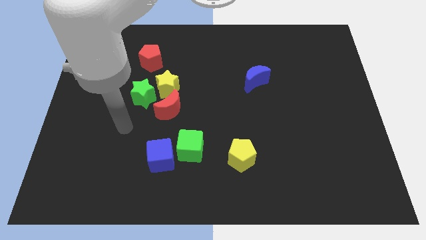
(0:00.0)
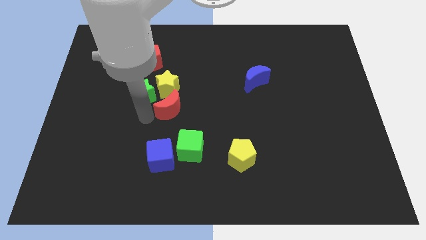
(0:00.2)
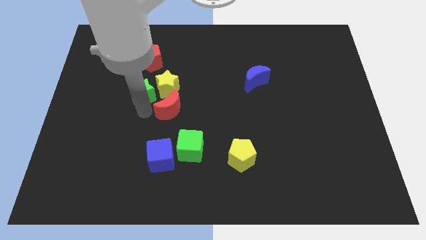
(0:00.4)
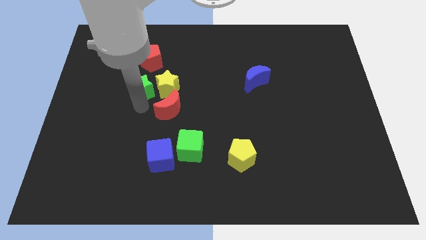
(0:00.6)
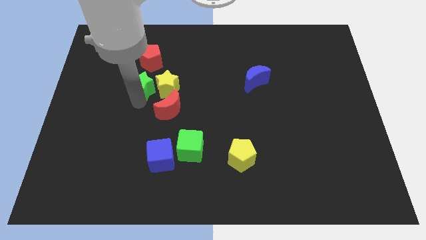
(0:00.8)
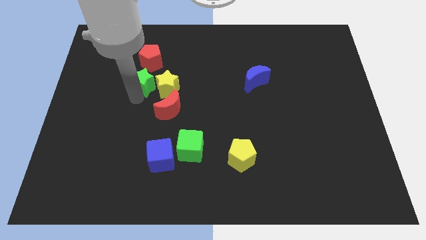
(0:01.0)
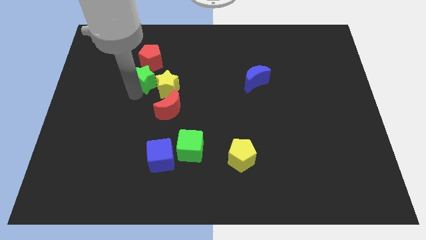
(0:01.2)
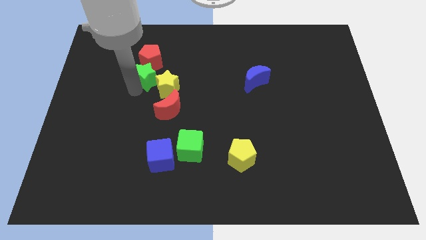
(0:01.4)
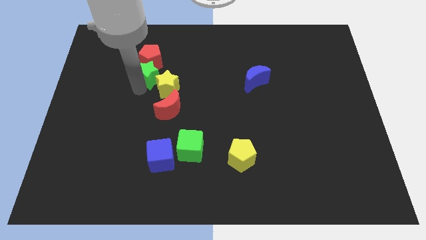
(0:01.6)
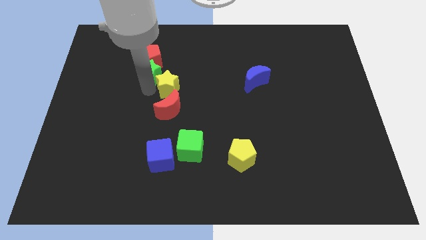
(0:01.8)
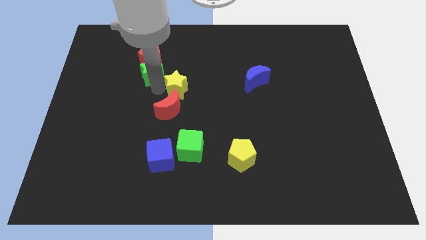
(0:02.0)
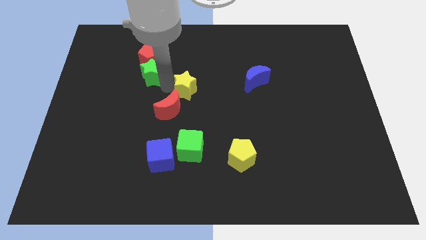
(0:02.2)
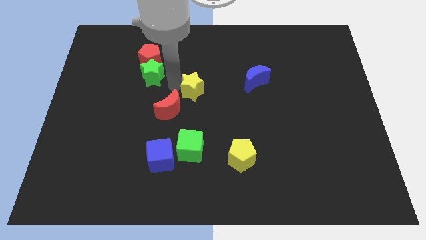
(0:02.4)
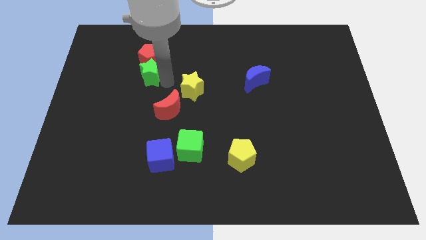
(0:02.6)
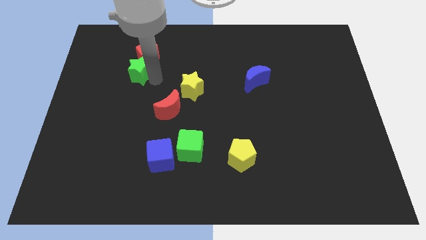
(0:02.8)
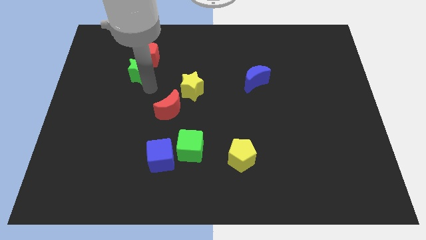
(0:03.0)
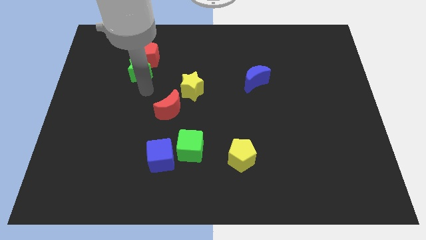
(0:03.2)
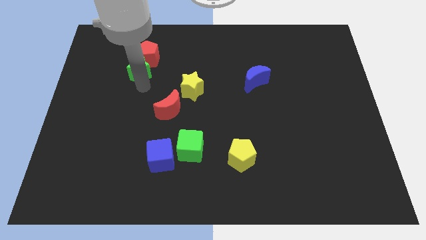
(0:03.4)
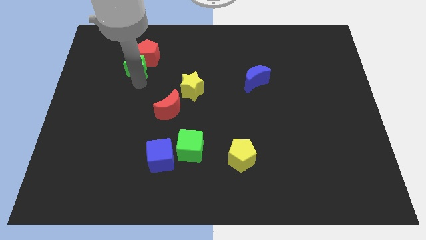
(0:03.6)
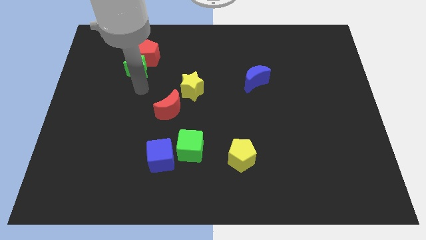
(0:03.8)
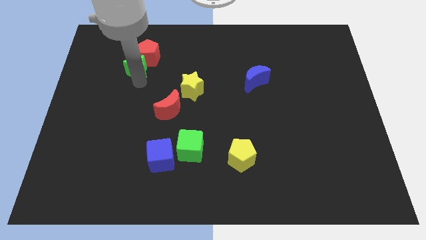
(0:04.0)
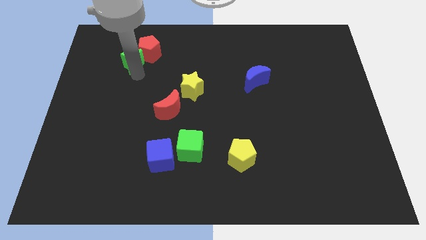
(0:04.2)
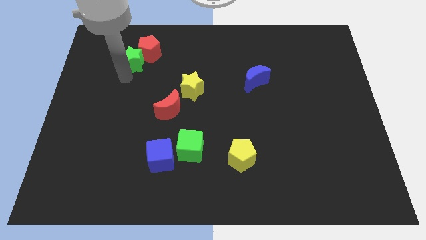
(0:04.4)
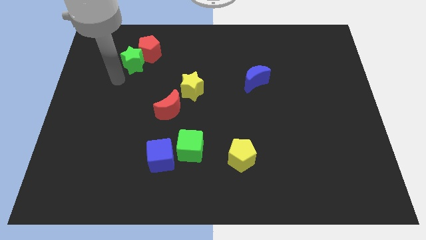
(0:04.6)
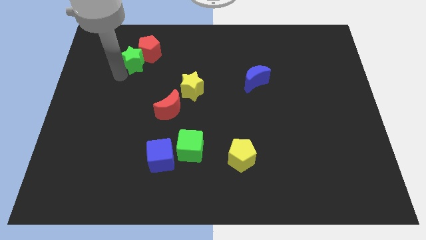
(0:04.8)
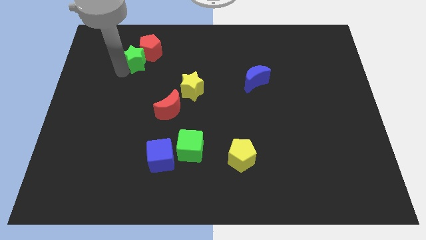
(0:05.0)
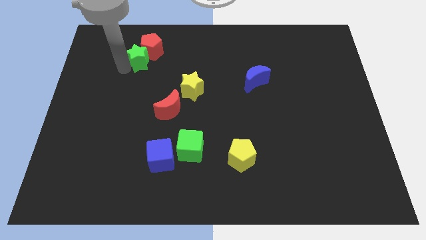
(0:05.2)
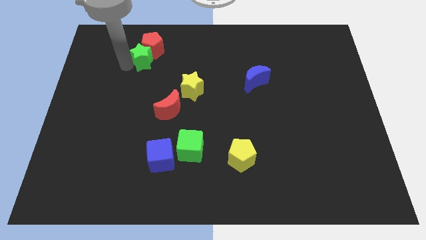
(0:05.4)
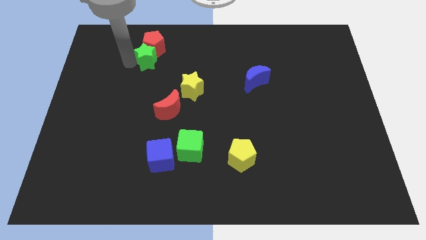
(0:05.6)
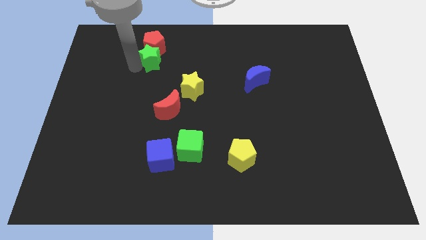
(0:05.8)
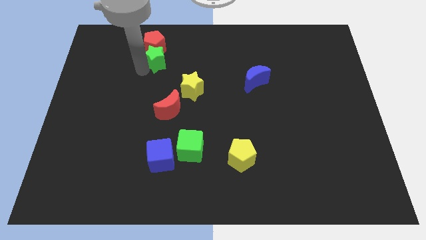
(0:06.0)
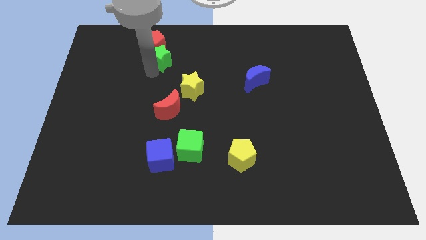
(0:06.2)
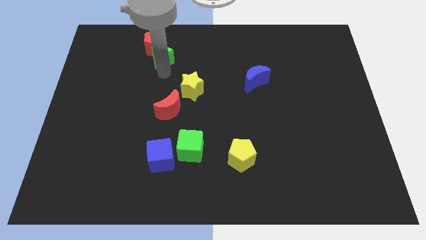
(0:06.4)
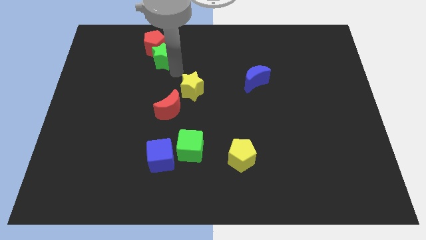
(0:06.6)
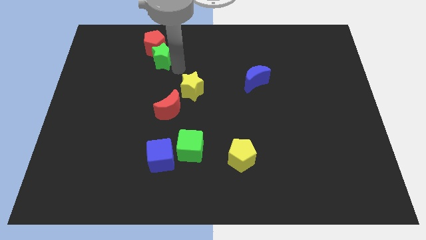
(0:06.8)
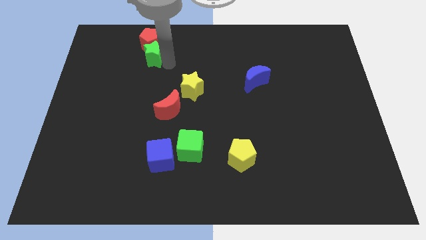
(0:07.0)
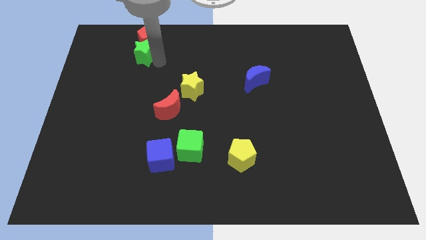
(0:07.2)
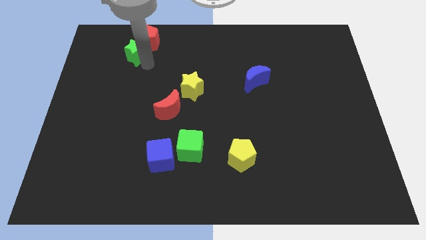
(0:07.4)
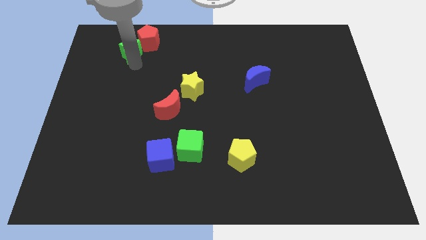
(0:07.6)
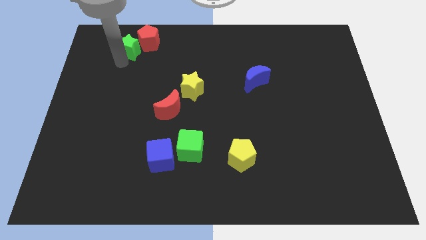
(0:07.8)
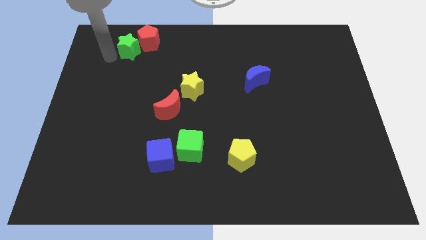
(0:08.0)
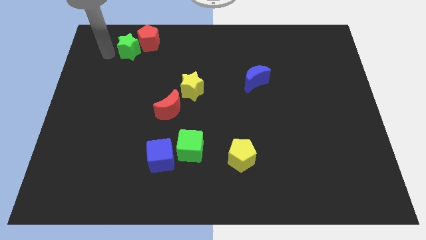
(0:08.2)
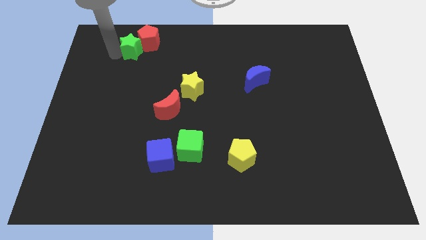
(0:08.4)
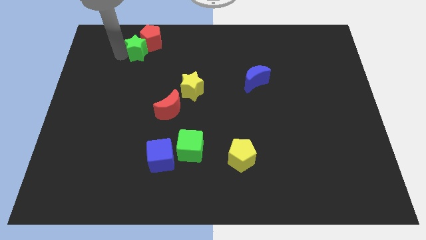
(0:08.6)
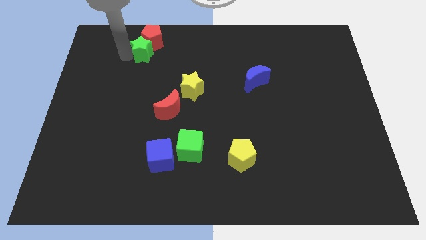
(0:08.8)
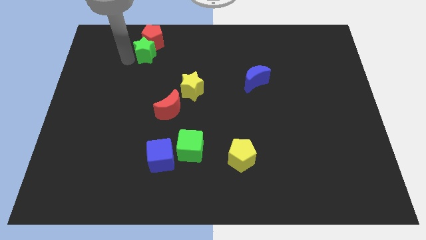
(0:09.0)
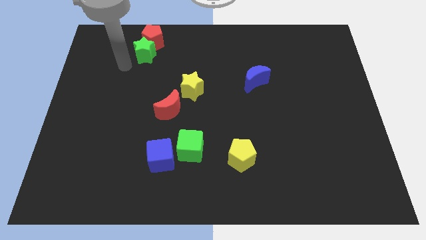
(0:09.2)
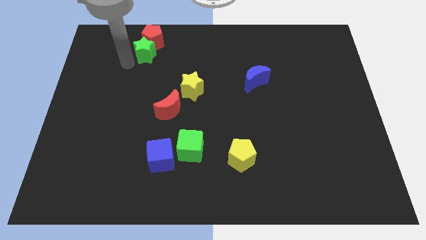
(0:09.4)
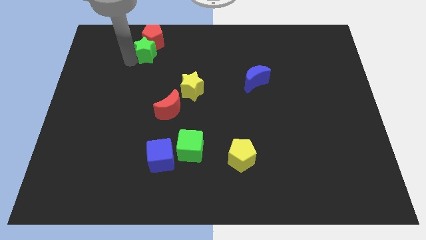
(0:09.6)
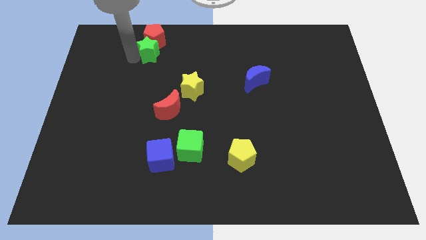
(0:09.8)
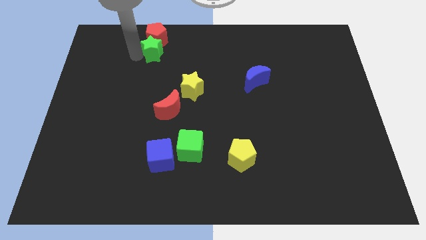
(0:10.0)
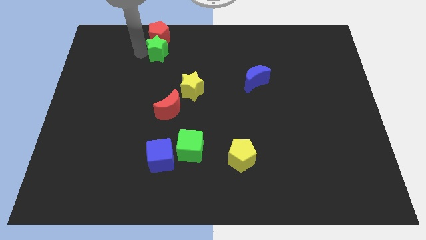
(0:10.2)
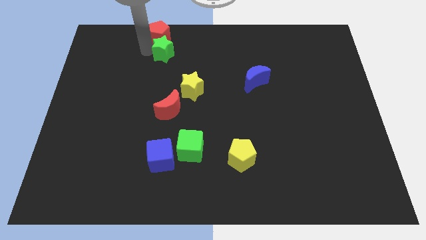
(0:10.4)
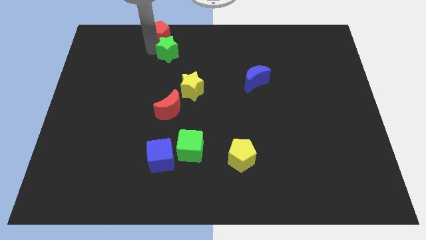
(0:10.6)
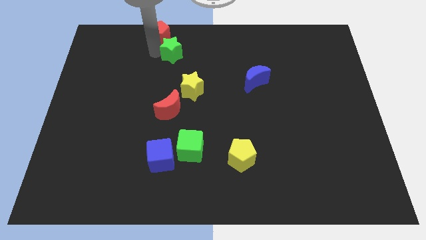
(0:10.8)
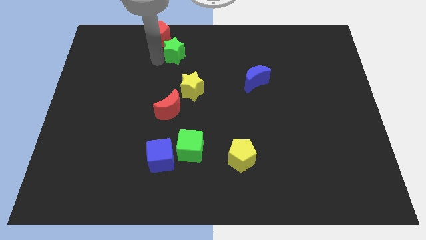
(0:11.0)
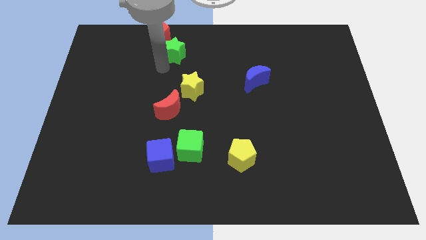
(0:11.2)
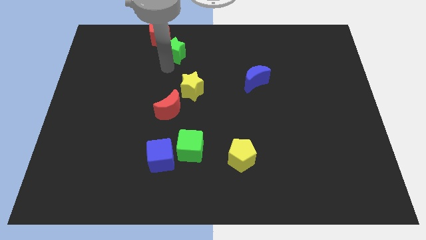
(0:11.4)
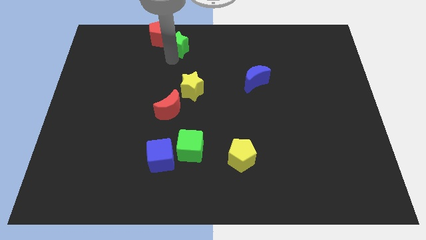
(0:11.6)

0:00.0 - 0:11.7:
move the green star to the top side
